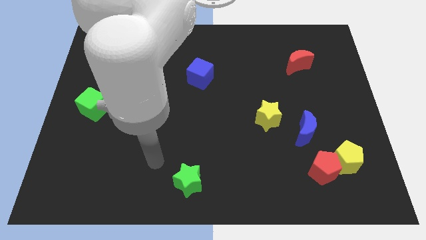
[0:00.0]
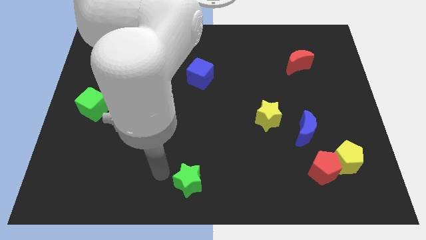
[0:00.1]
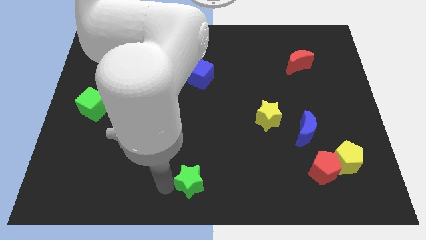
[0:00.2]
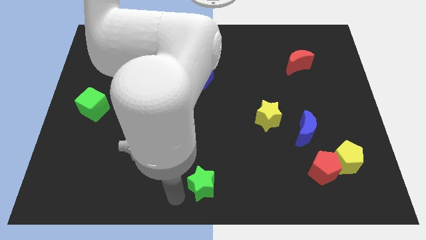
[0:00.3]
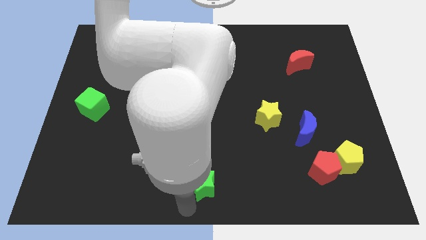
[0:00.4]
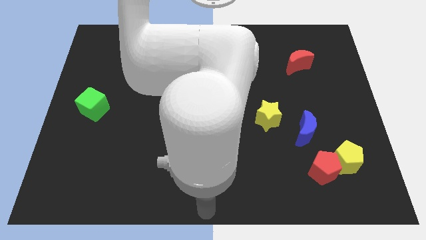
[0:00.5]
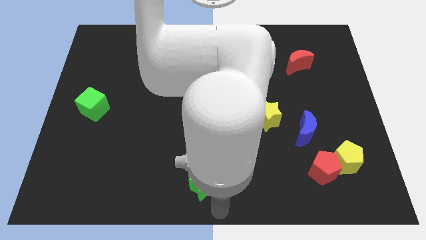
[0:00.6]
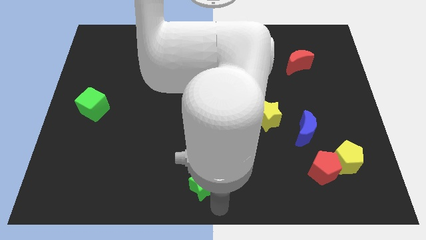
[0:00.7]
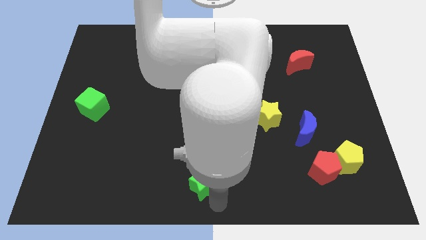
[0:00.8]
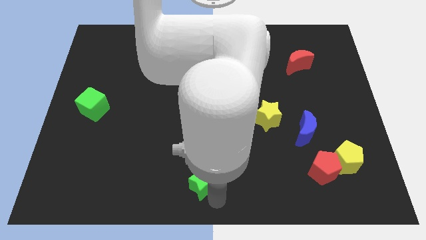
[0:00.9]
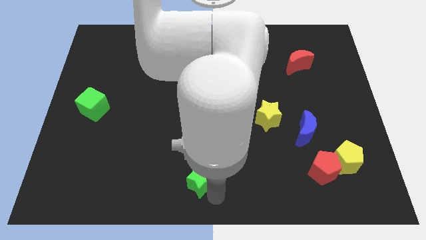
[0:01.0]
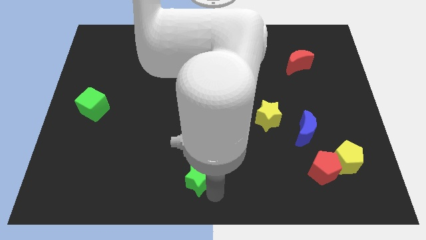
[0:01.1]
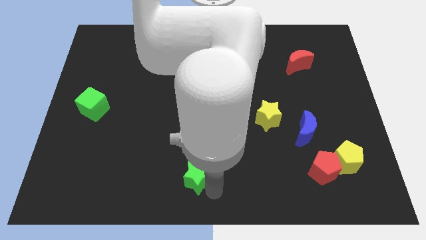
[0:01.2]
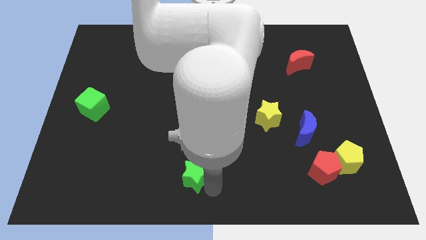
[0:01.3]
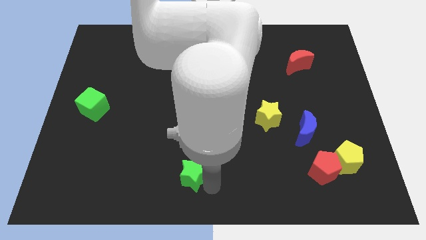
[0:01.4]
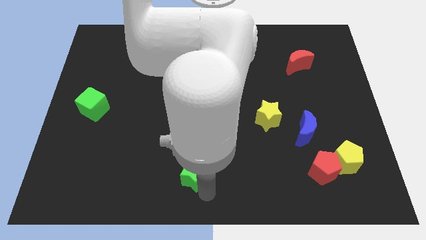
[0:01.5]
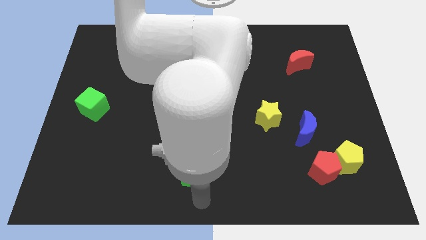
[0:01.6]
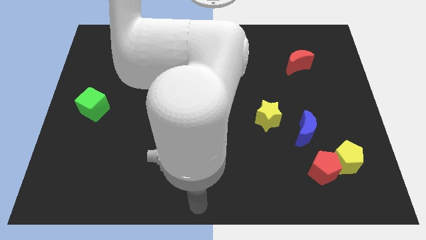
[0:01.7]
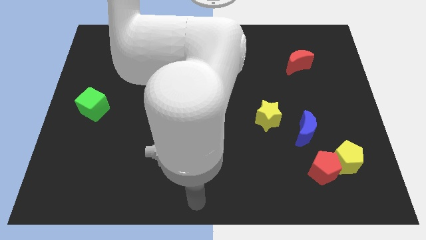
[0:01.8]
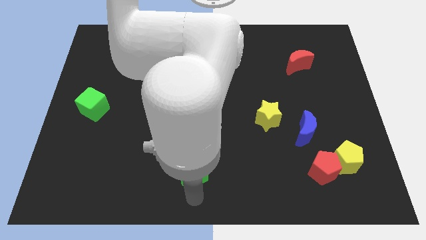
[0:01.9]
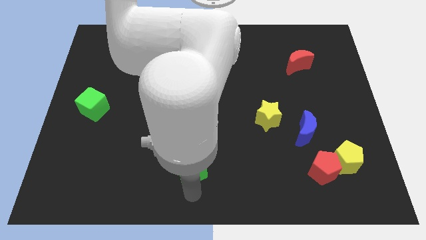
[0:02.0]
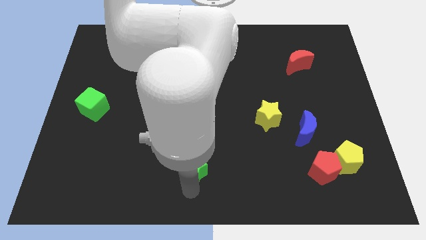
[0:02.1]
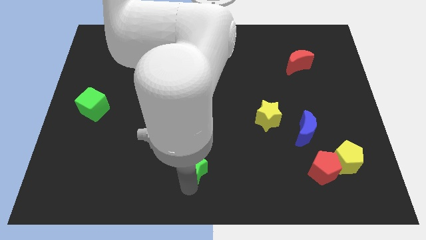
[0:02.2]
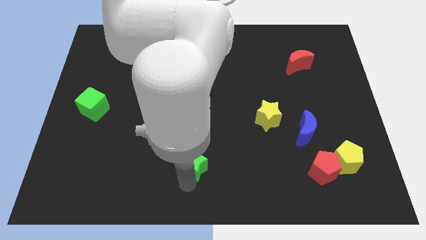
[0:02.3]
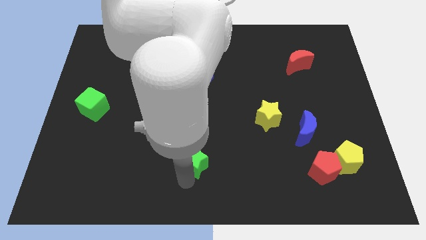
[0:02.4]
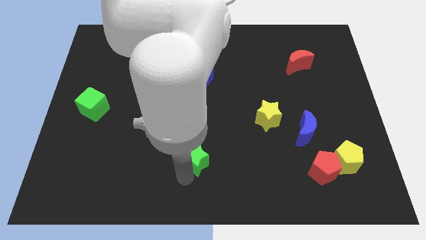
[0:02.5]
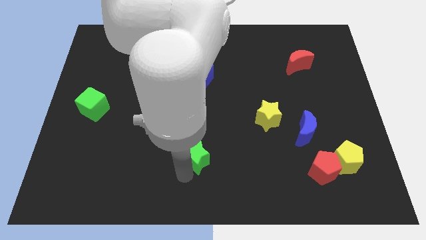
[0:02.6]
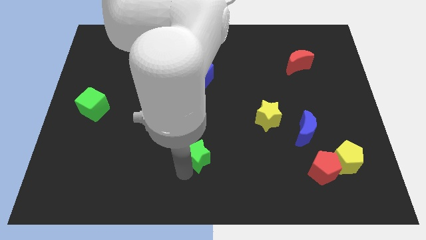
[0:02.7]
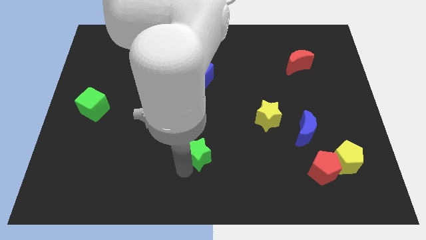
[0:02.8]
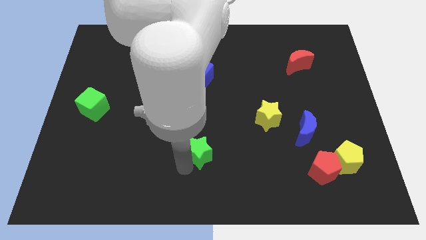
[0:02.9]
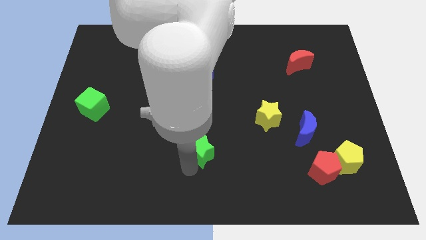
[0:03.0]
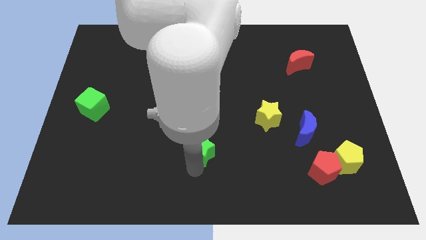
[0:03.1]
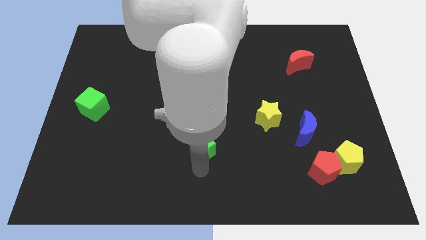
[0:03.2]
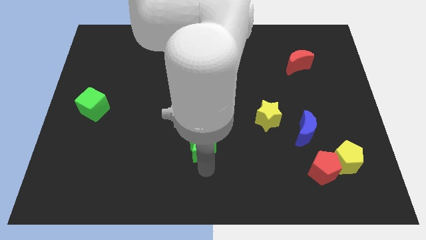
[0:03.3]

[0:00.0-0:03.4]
slide the green star a little up

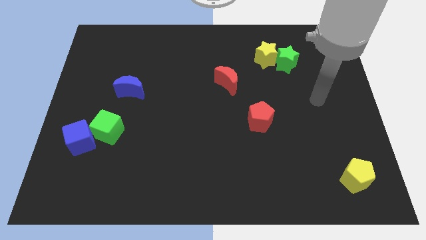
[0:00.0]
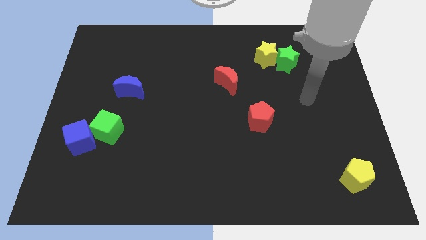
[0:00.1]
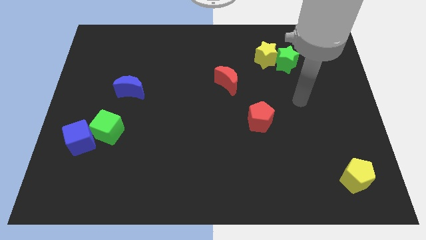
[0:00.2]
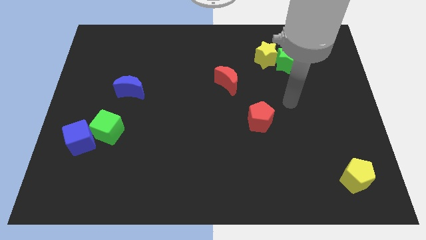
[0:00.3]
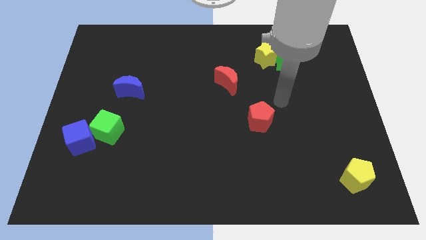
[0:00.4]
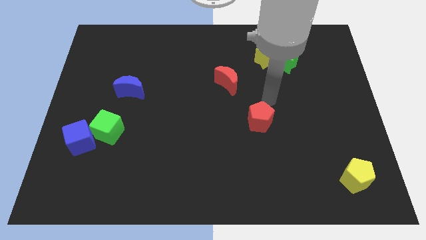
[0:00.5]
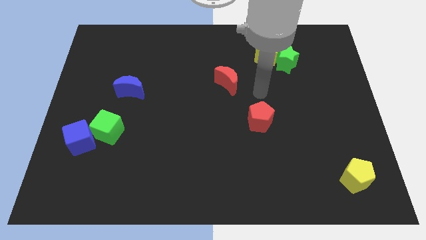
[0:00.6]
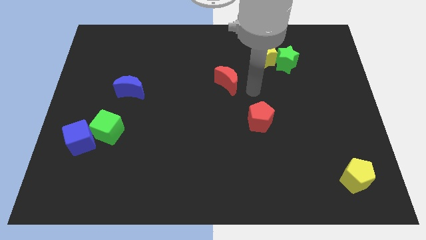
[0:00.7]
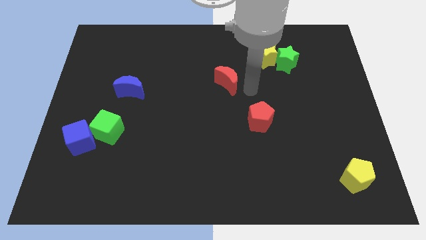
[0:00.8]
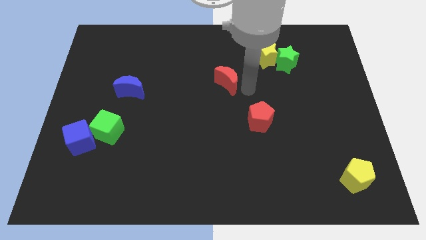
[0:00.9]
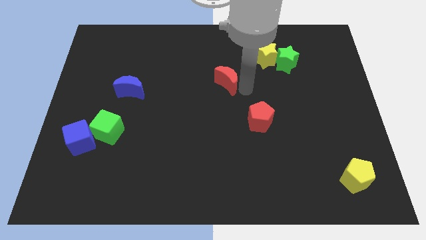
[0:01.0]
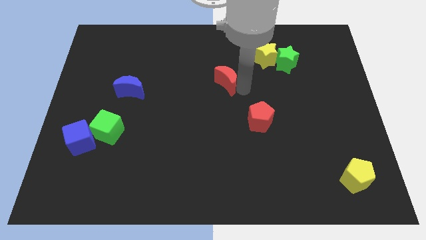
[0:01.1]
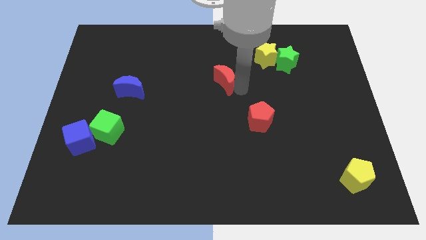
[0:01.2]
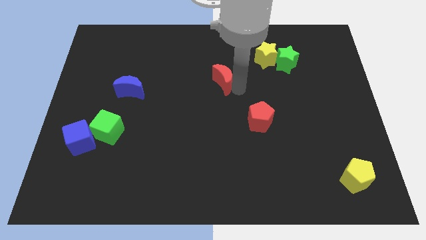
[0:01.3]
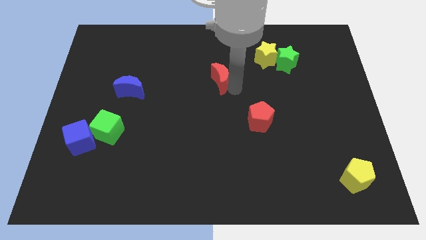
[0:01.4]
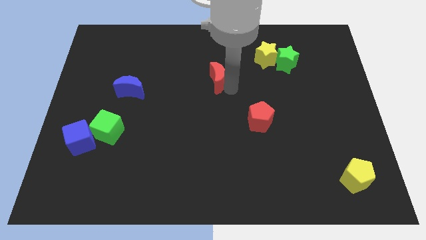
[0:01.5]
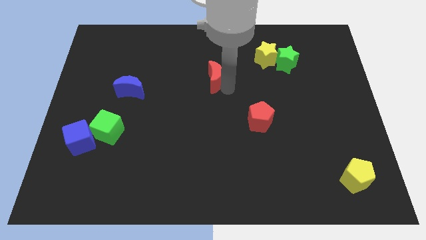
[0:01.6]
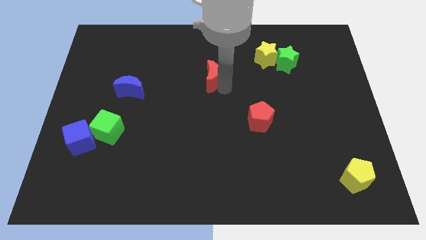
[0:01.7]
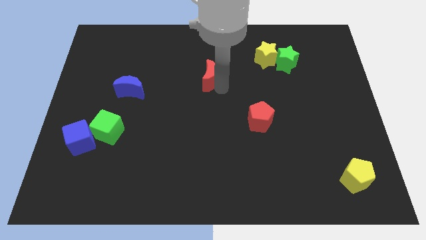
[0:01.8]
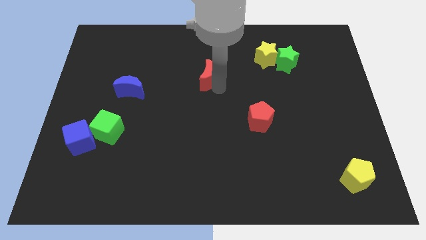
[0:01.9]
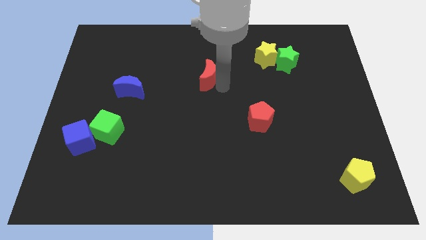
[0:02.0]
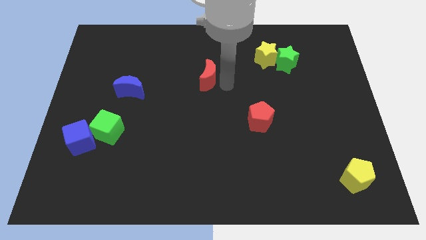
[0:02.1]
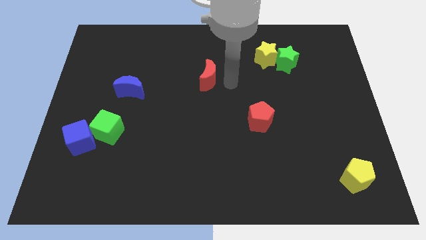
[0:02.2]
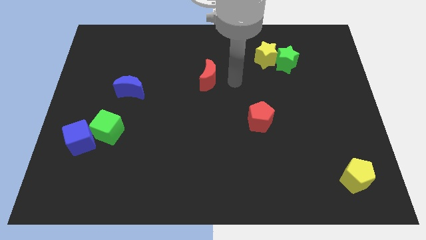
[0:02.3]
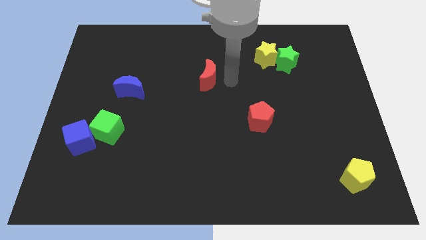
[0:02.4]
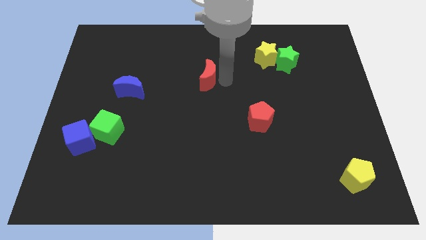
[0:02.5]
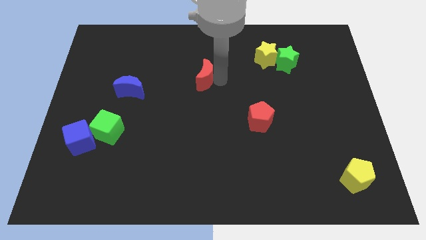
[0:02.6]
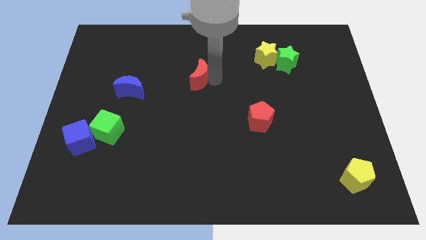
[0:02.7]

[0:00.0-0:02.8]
push the red moon to the left a little

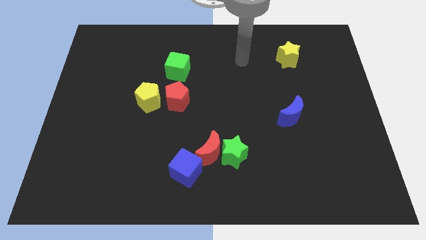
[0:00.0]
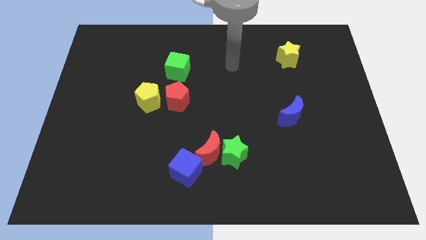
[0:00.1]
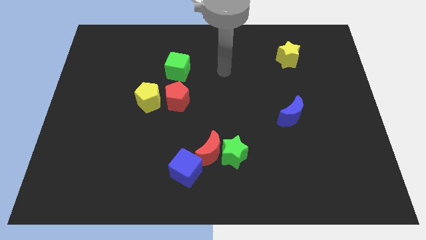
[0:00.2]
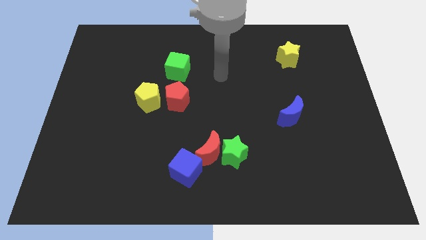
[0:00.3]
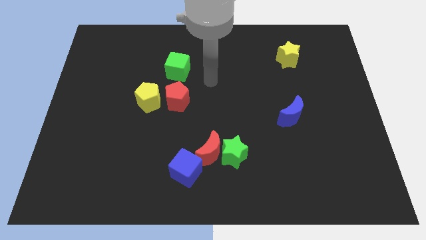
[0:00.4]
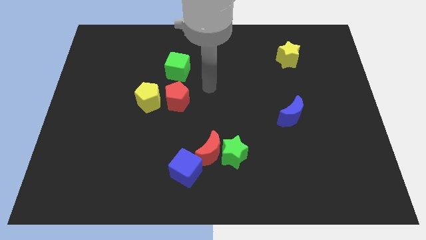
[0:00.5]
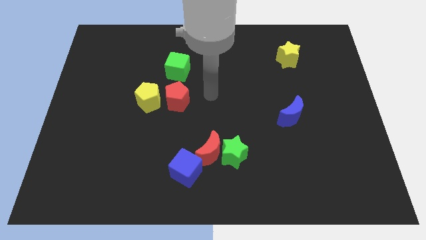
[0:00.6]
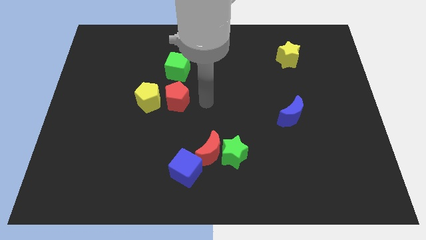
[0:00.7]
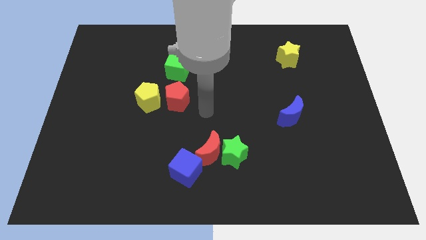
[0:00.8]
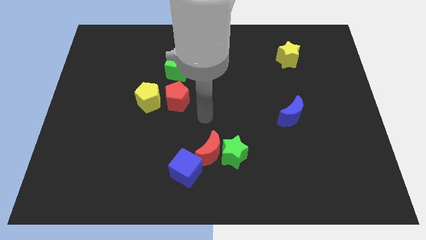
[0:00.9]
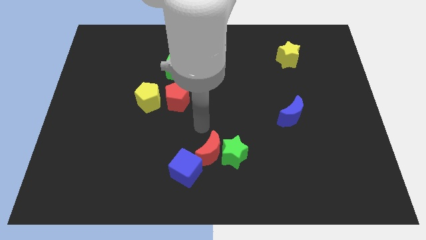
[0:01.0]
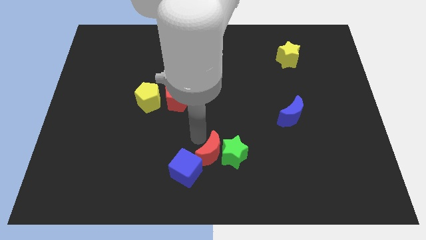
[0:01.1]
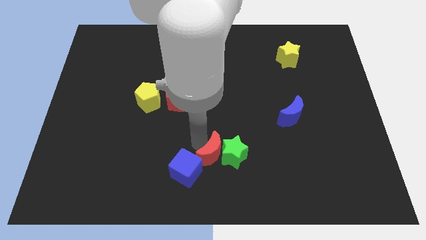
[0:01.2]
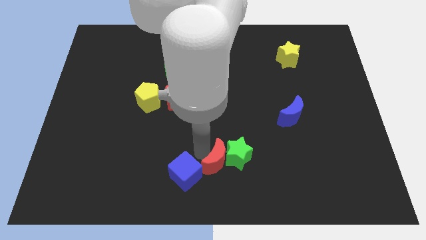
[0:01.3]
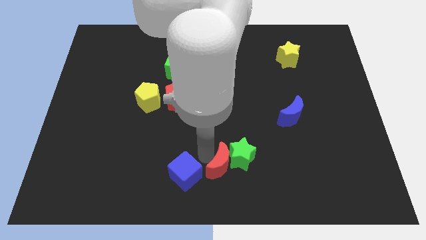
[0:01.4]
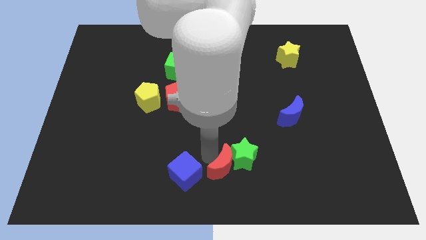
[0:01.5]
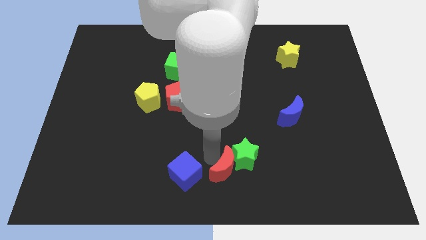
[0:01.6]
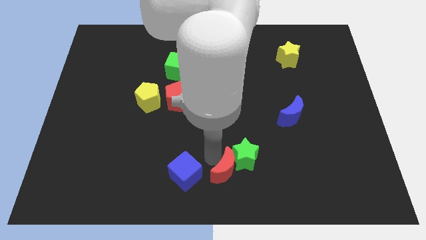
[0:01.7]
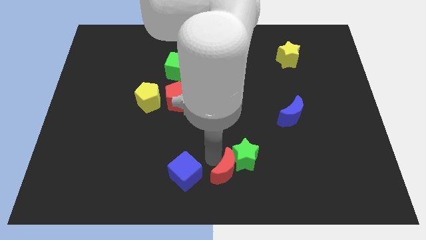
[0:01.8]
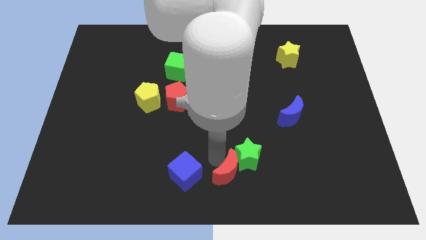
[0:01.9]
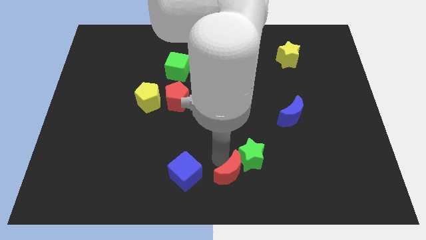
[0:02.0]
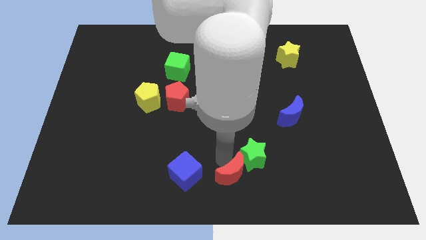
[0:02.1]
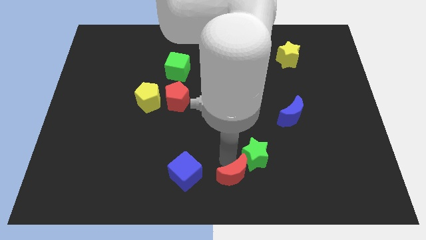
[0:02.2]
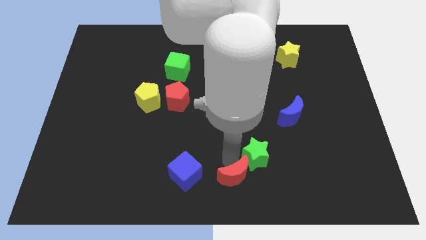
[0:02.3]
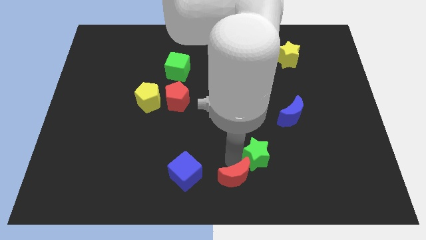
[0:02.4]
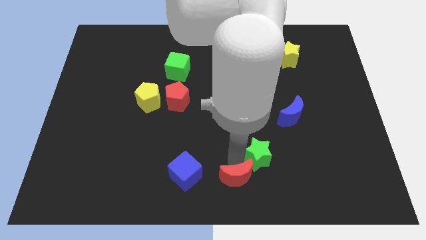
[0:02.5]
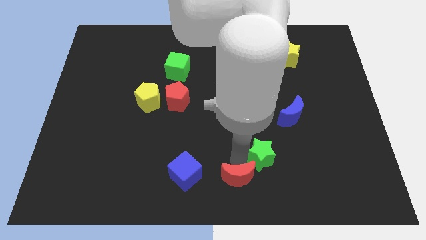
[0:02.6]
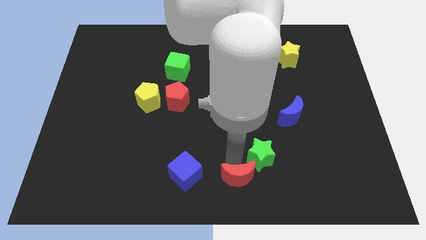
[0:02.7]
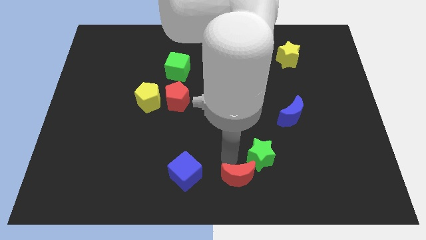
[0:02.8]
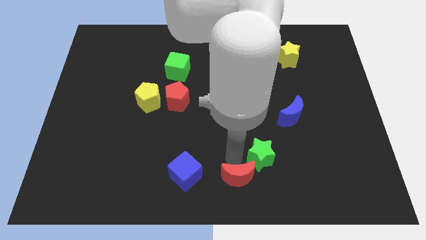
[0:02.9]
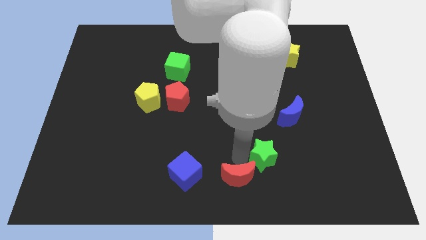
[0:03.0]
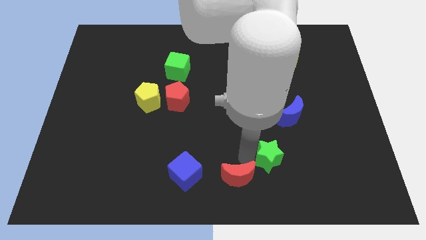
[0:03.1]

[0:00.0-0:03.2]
push the green star a little right
